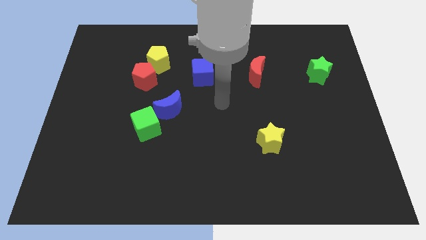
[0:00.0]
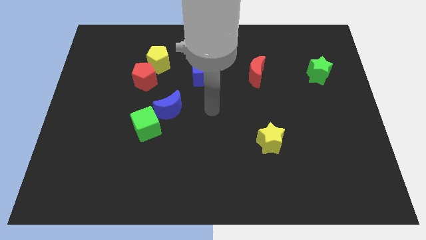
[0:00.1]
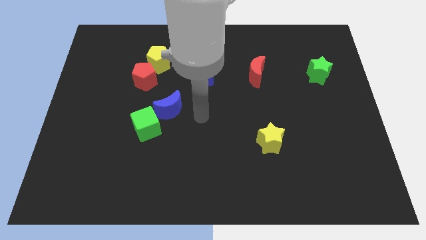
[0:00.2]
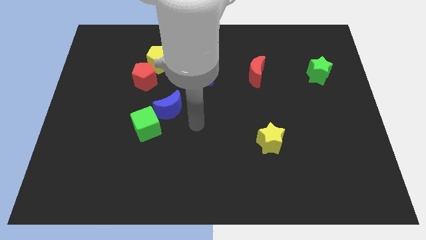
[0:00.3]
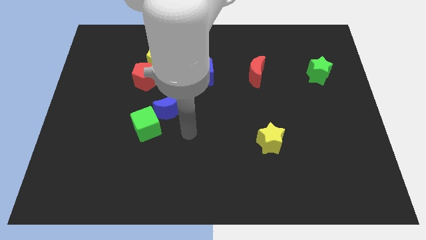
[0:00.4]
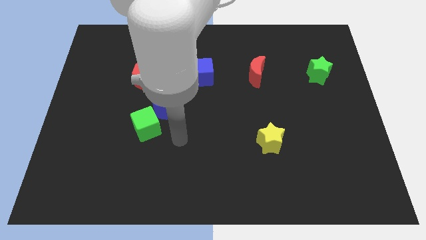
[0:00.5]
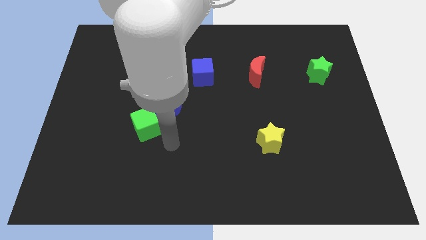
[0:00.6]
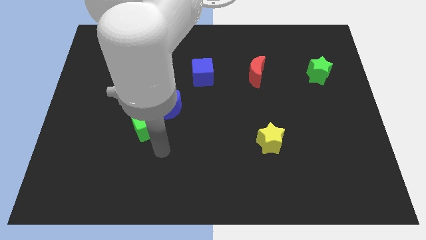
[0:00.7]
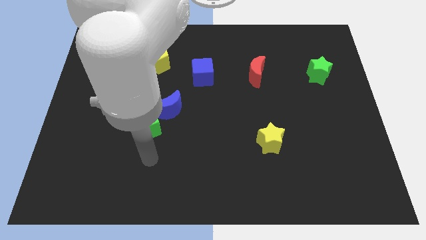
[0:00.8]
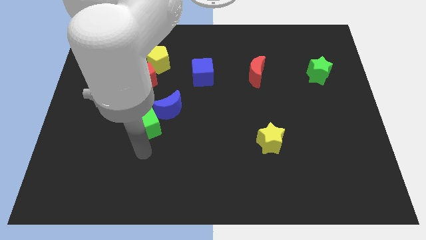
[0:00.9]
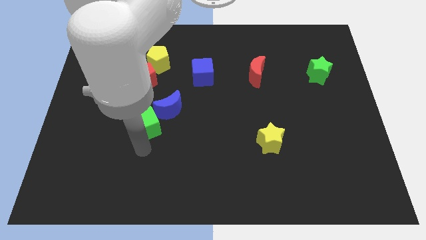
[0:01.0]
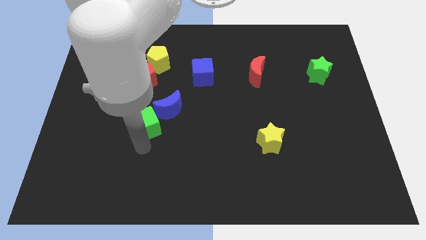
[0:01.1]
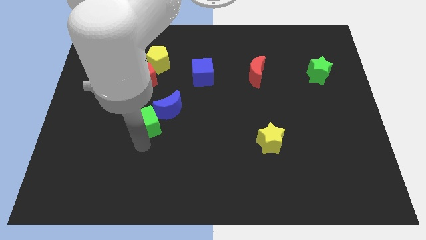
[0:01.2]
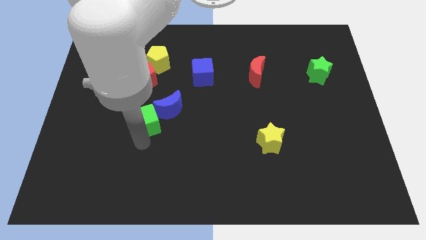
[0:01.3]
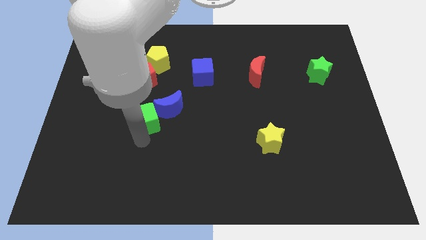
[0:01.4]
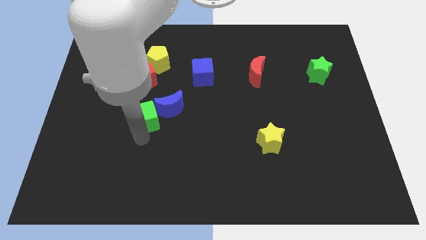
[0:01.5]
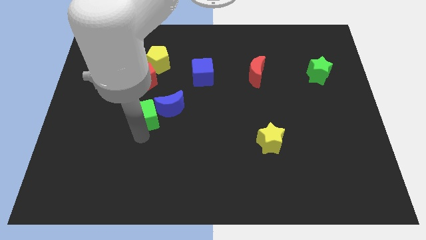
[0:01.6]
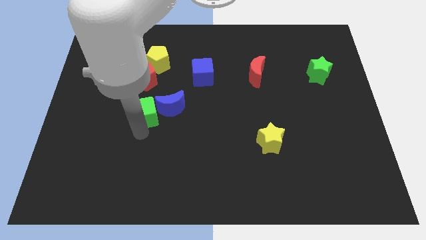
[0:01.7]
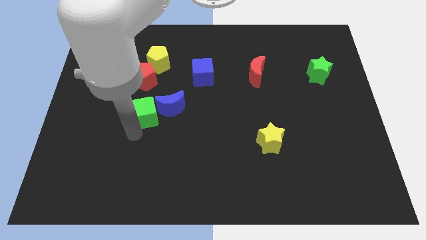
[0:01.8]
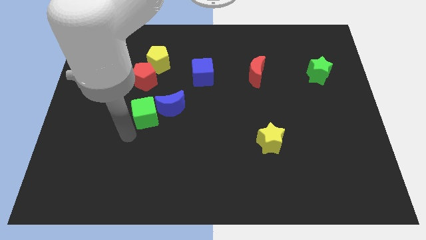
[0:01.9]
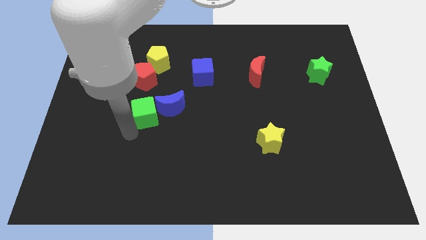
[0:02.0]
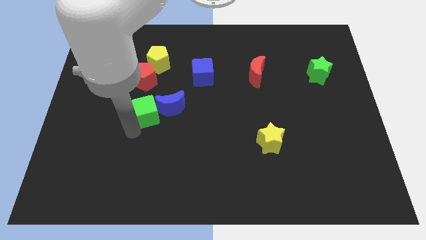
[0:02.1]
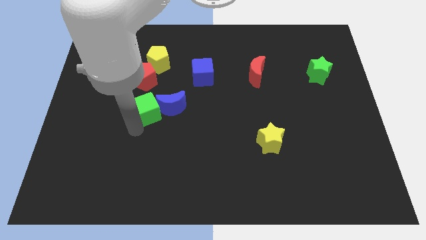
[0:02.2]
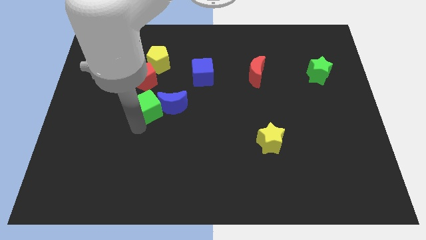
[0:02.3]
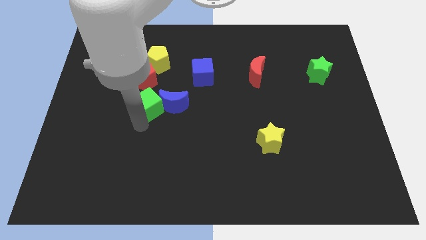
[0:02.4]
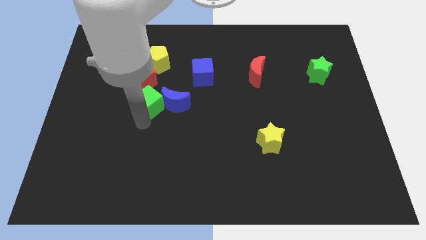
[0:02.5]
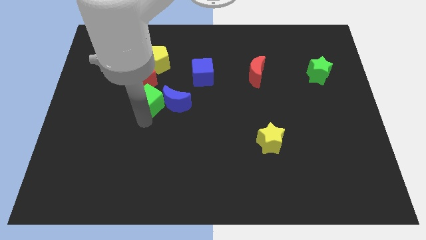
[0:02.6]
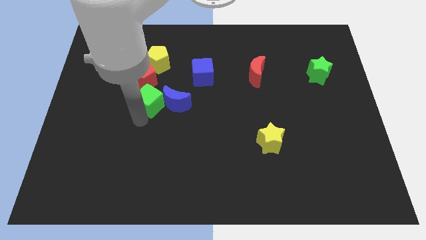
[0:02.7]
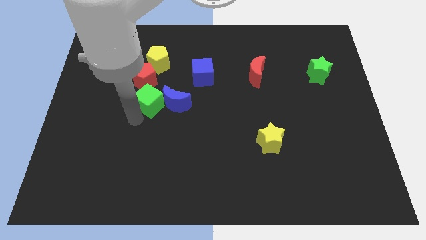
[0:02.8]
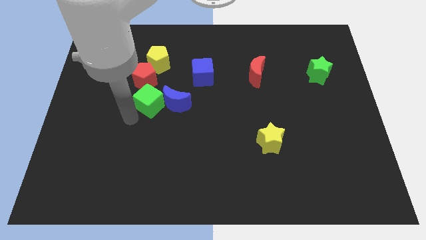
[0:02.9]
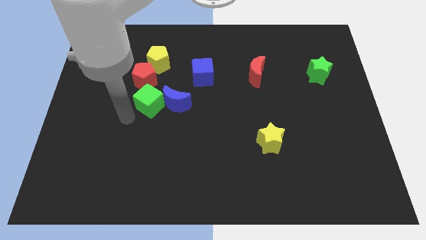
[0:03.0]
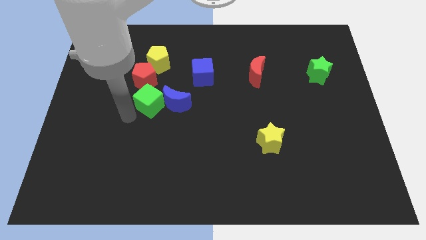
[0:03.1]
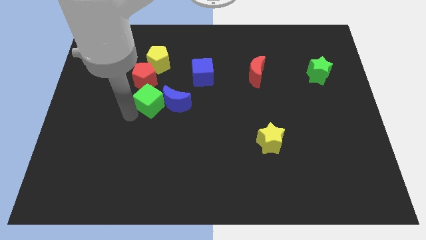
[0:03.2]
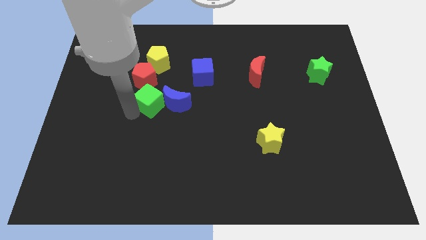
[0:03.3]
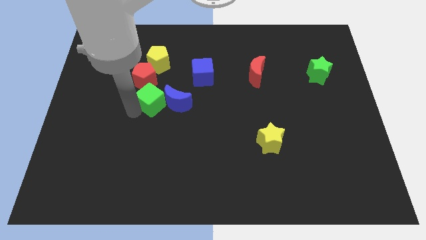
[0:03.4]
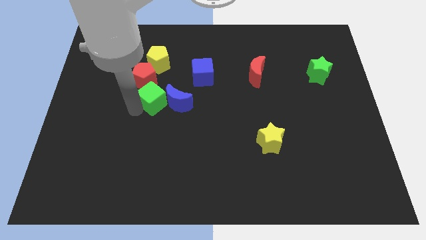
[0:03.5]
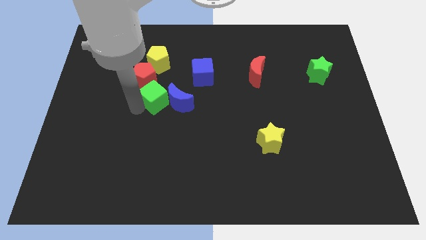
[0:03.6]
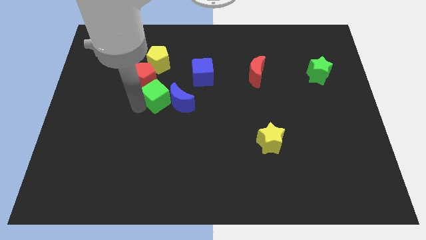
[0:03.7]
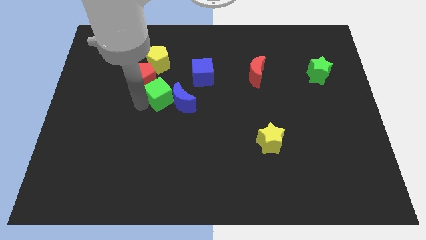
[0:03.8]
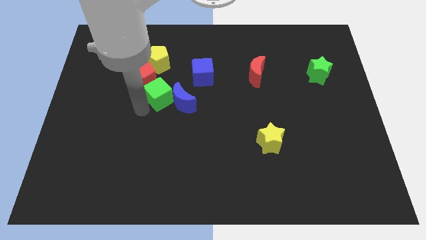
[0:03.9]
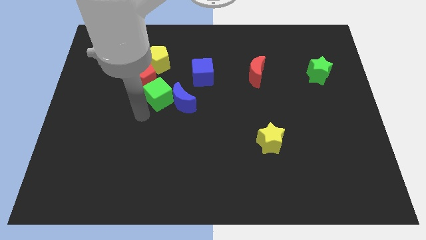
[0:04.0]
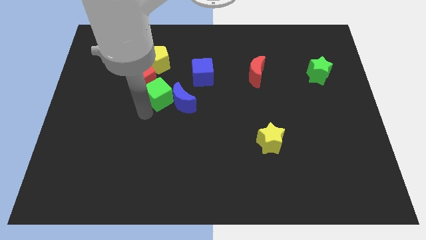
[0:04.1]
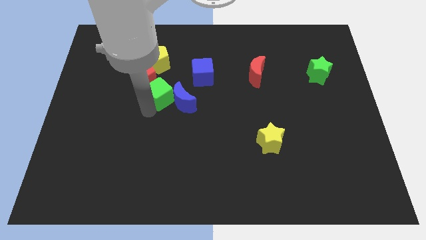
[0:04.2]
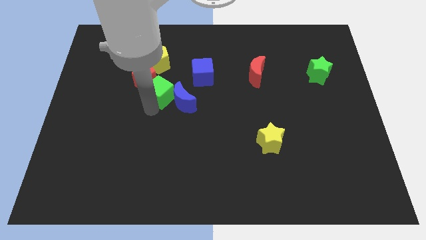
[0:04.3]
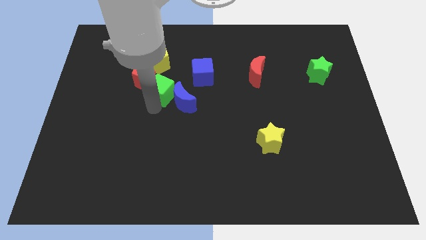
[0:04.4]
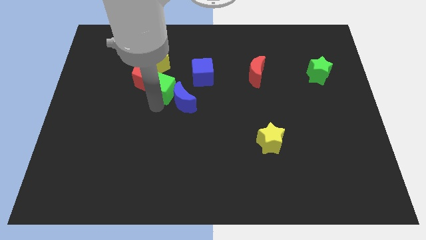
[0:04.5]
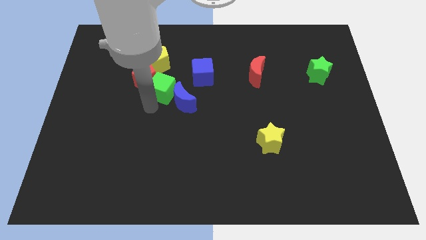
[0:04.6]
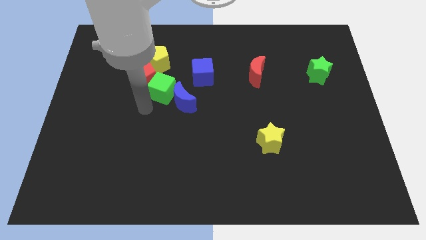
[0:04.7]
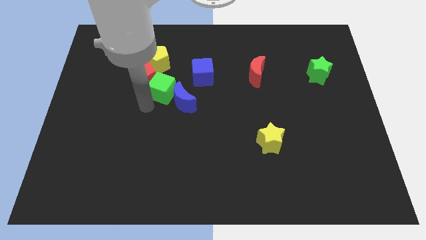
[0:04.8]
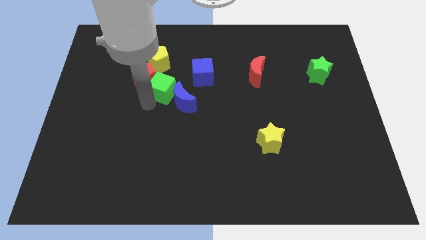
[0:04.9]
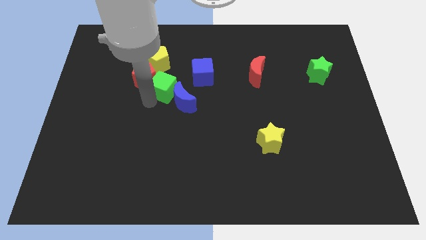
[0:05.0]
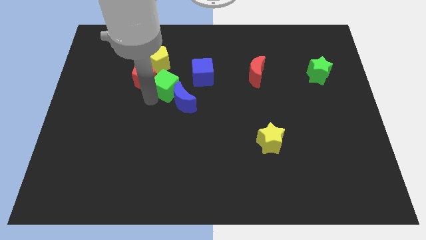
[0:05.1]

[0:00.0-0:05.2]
move the green cube to the bottom right side of the yellow pentagon

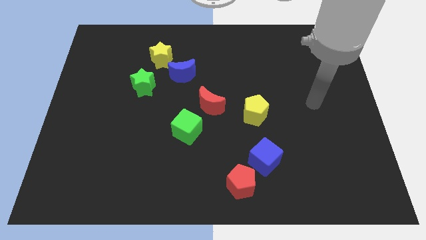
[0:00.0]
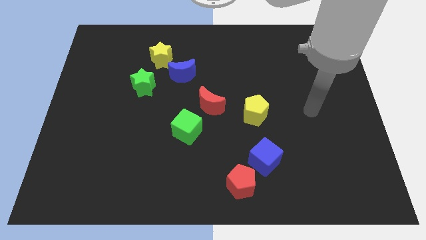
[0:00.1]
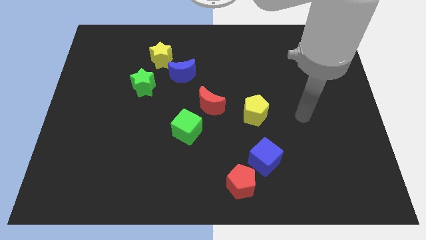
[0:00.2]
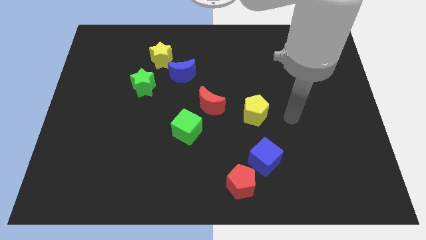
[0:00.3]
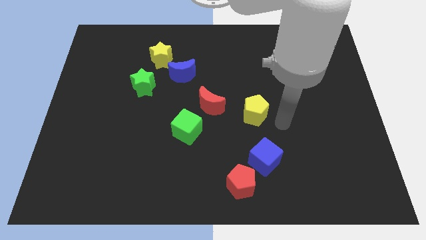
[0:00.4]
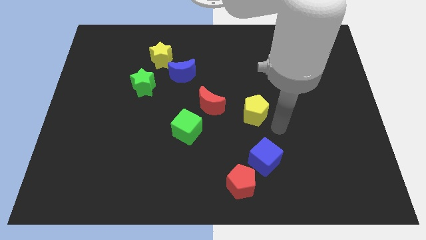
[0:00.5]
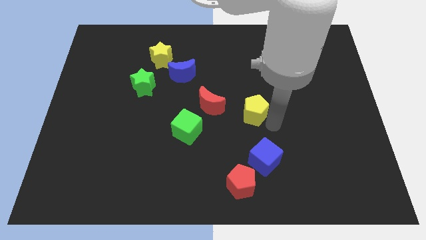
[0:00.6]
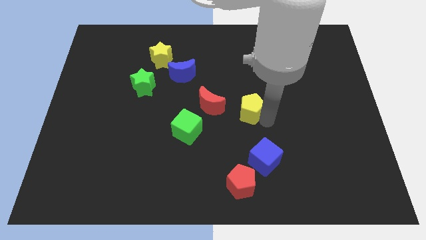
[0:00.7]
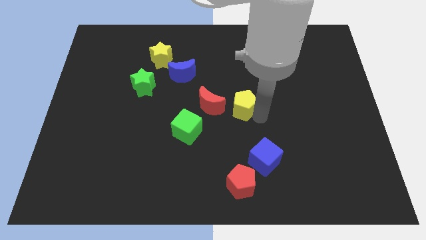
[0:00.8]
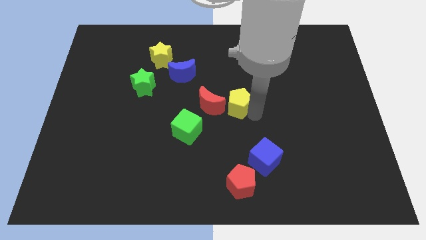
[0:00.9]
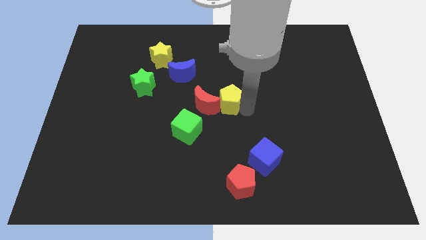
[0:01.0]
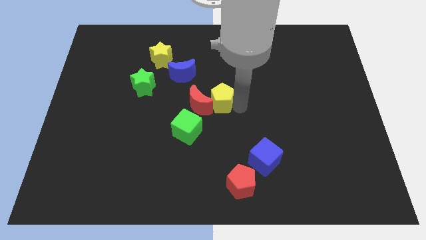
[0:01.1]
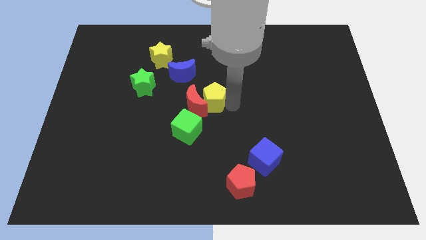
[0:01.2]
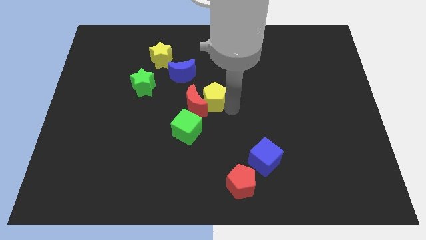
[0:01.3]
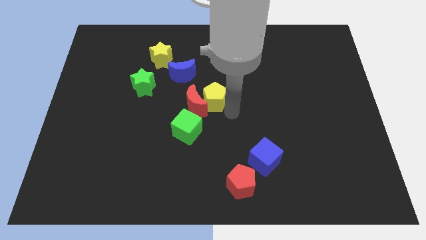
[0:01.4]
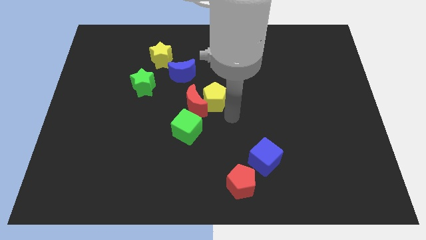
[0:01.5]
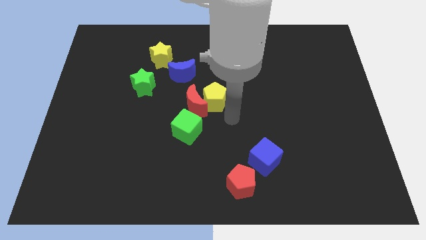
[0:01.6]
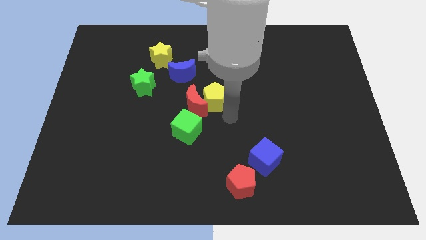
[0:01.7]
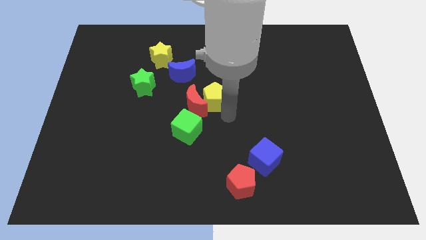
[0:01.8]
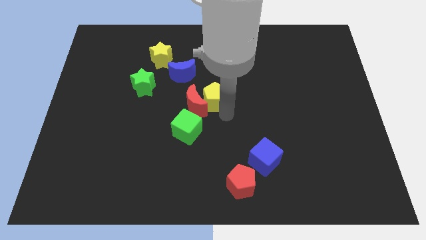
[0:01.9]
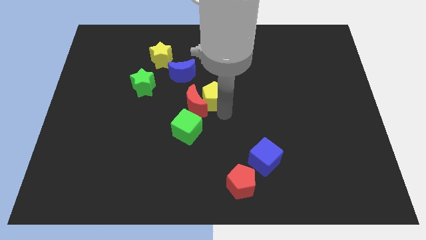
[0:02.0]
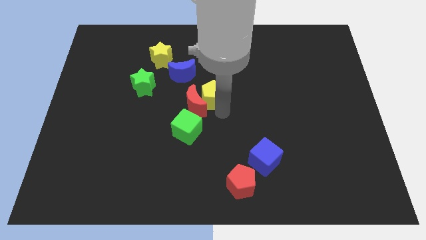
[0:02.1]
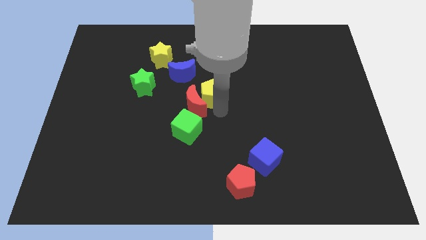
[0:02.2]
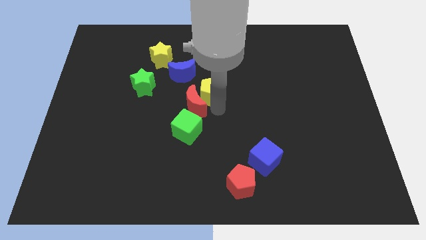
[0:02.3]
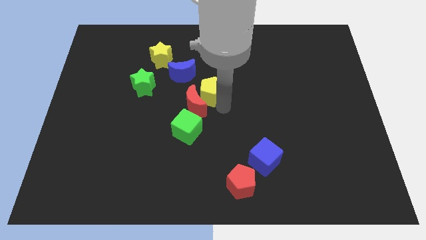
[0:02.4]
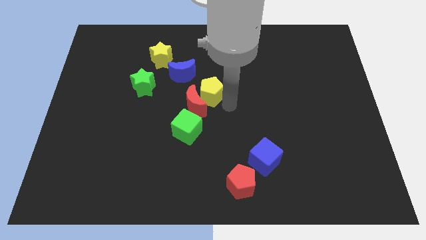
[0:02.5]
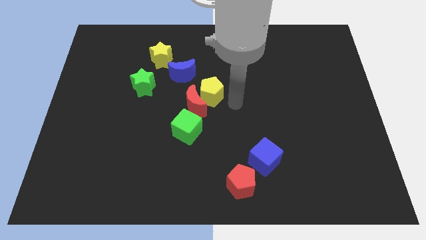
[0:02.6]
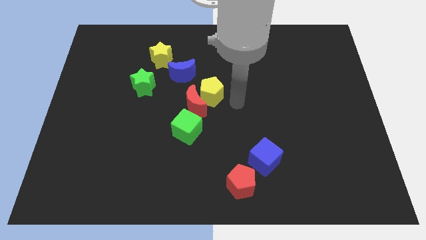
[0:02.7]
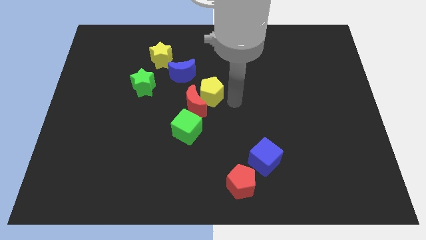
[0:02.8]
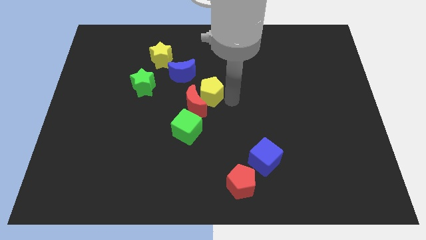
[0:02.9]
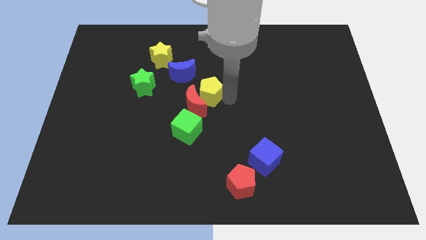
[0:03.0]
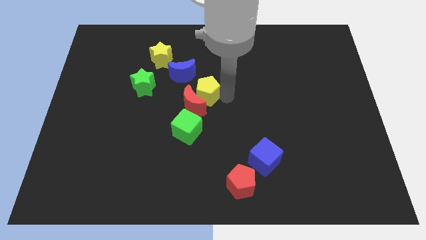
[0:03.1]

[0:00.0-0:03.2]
push the yellow pentagon just right of the green star
